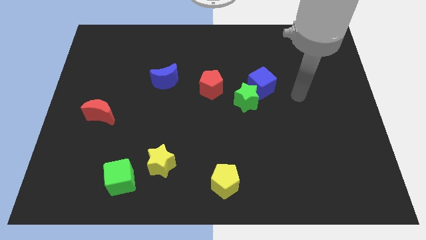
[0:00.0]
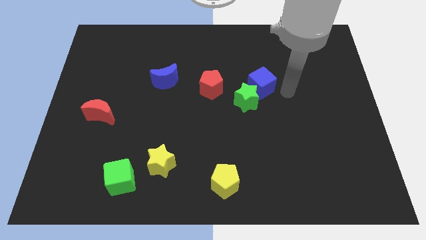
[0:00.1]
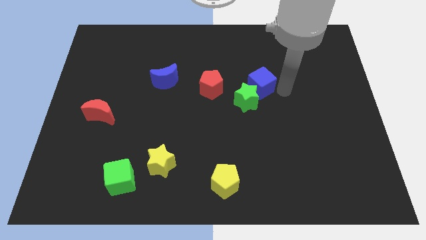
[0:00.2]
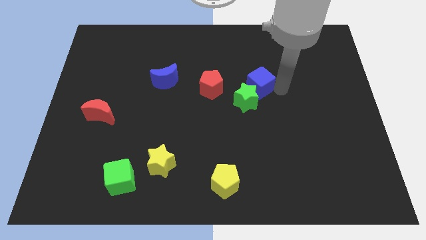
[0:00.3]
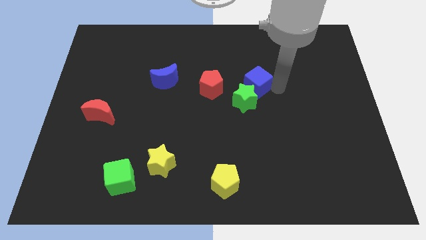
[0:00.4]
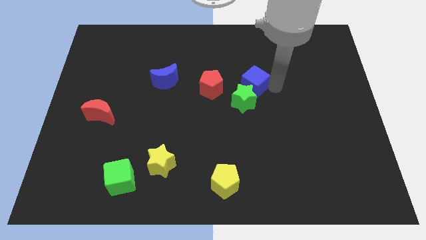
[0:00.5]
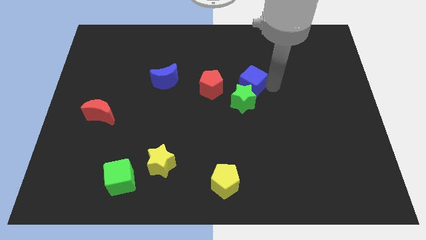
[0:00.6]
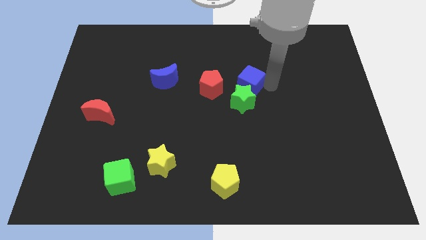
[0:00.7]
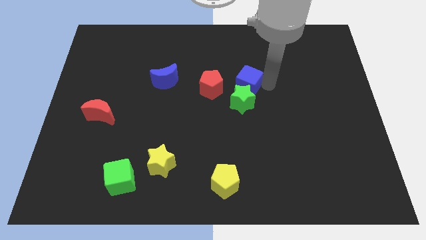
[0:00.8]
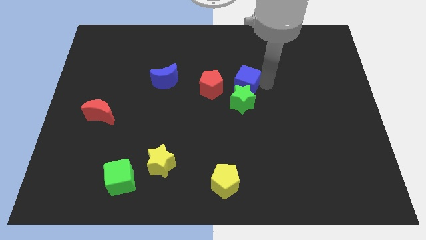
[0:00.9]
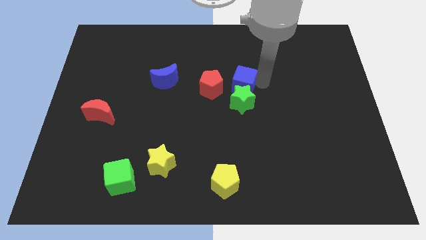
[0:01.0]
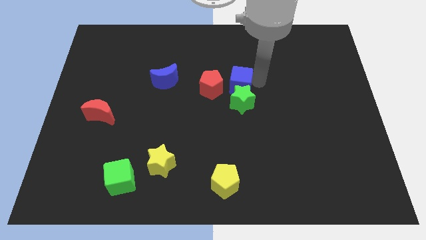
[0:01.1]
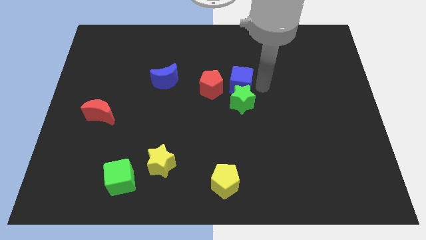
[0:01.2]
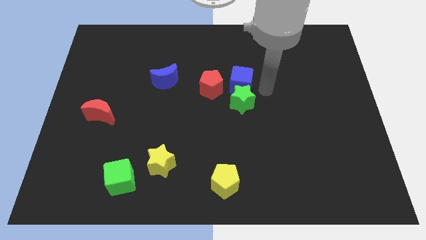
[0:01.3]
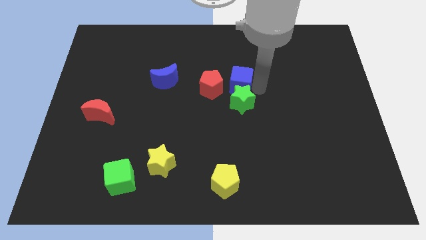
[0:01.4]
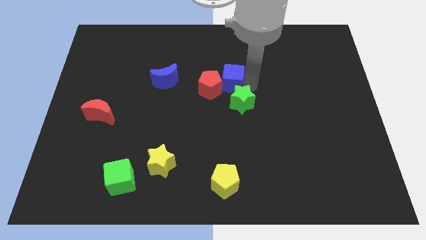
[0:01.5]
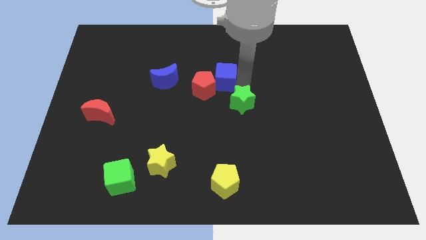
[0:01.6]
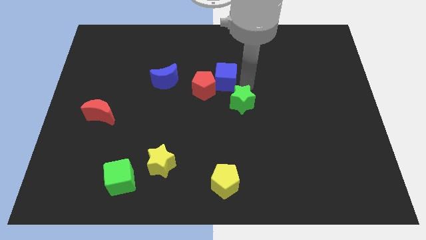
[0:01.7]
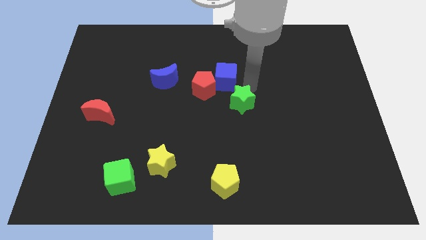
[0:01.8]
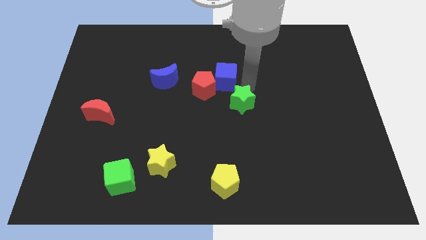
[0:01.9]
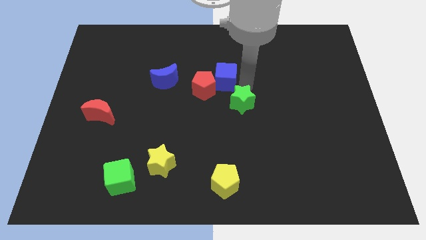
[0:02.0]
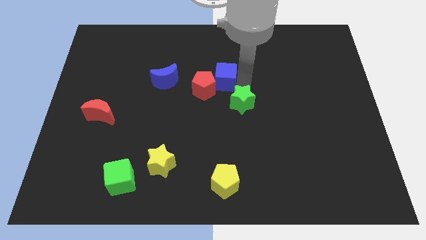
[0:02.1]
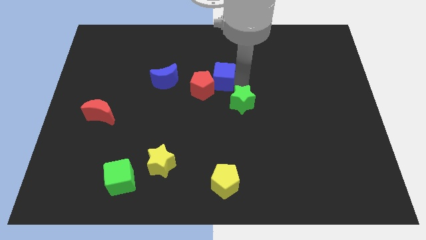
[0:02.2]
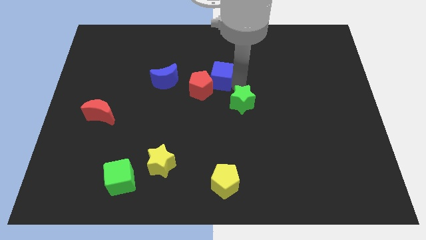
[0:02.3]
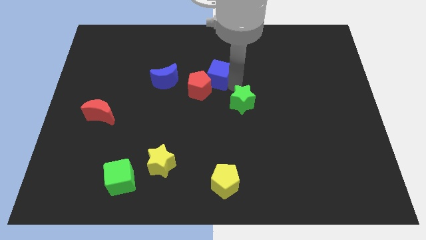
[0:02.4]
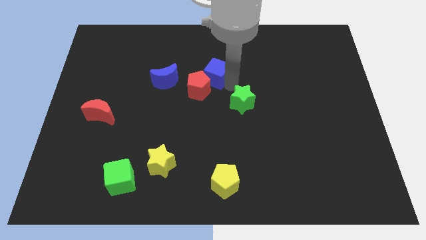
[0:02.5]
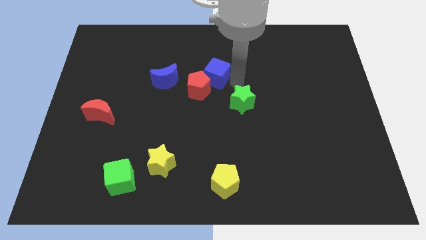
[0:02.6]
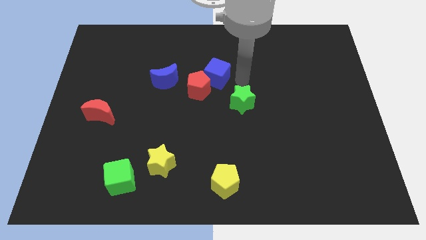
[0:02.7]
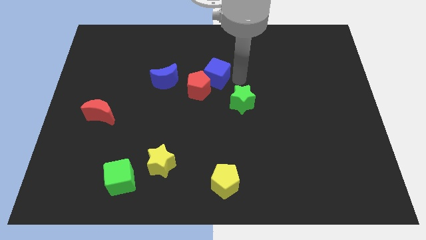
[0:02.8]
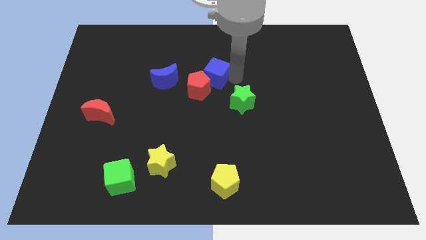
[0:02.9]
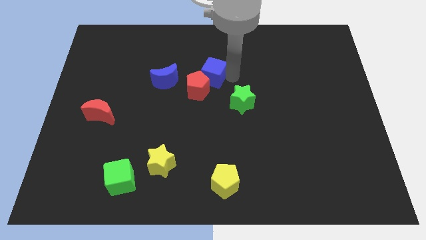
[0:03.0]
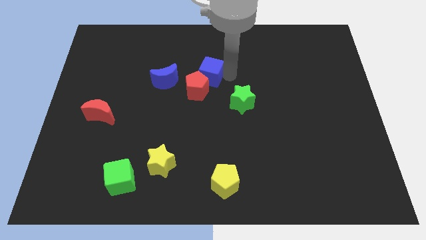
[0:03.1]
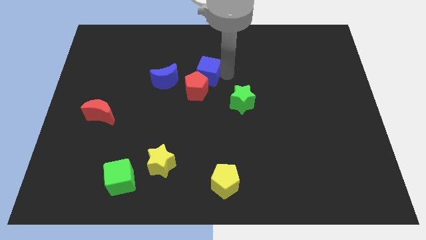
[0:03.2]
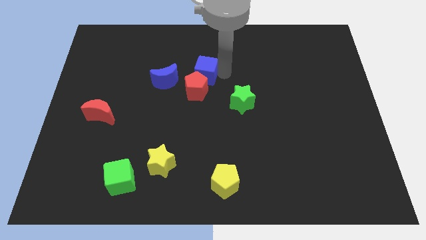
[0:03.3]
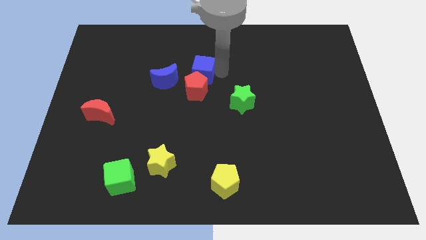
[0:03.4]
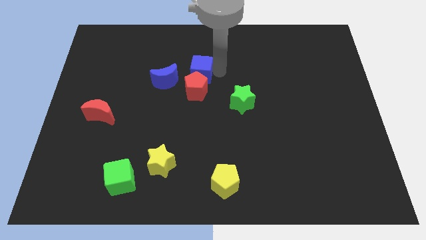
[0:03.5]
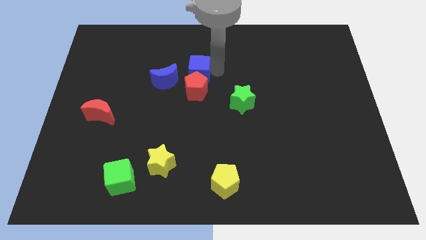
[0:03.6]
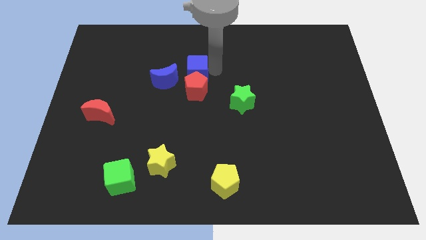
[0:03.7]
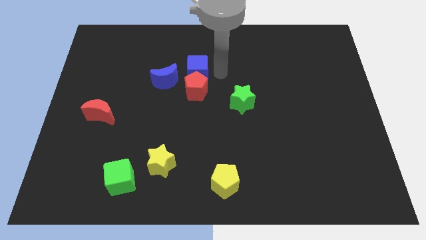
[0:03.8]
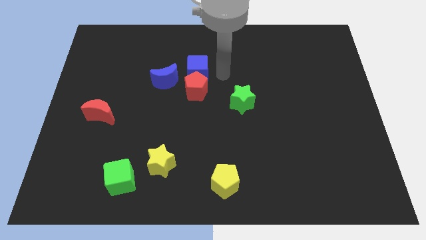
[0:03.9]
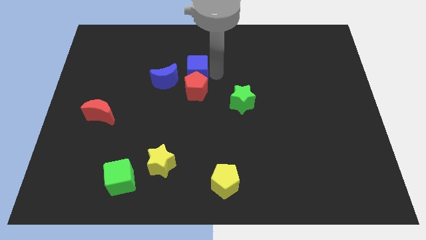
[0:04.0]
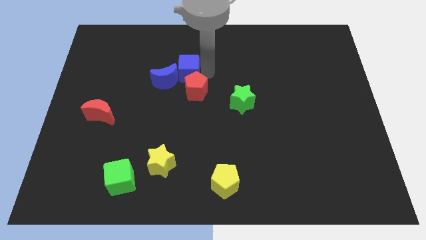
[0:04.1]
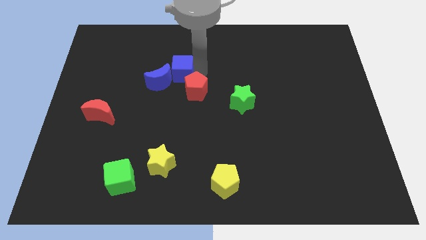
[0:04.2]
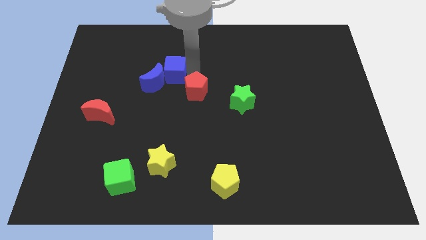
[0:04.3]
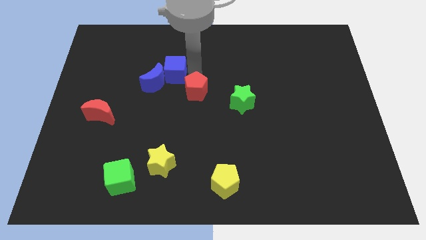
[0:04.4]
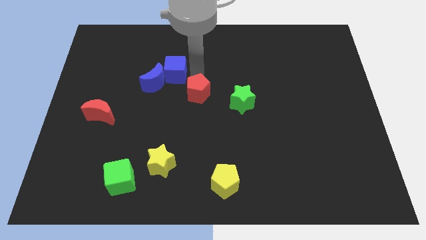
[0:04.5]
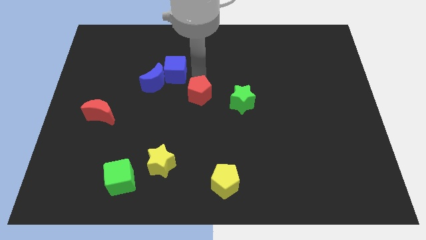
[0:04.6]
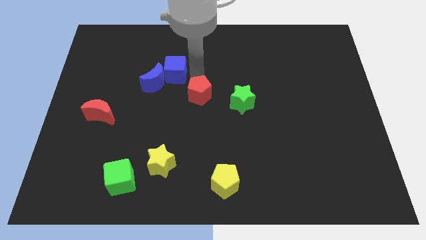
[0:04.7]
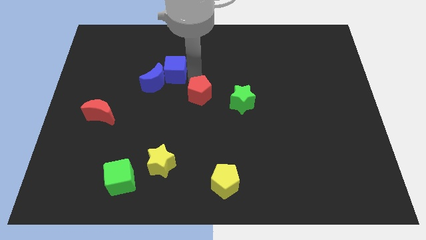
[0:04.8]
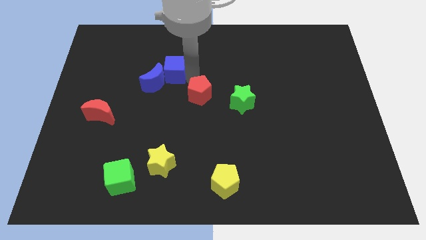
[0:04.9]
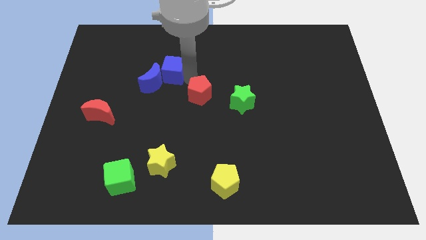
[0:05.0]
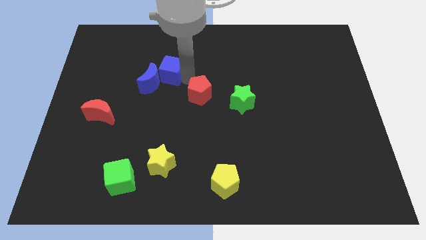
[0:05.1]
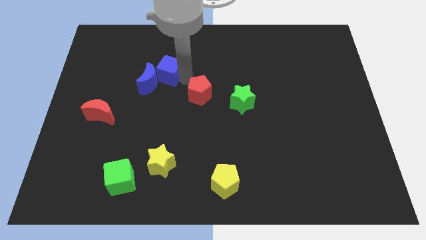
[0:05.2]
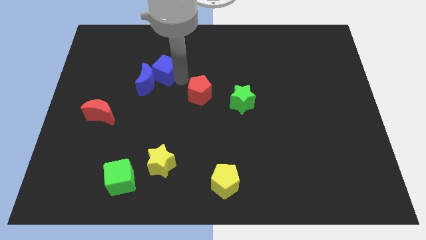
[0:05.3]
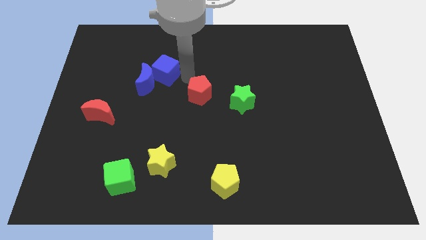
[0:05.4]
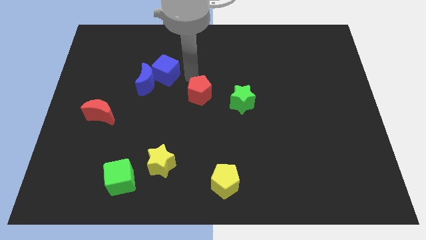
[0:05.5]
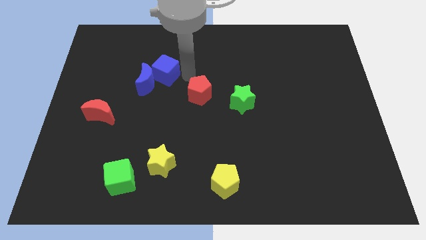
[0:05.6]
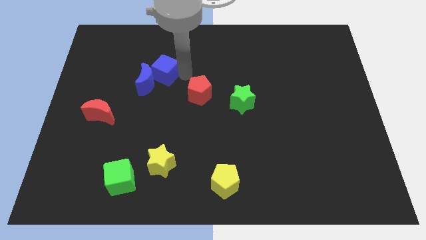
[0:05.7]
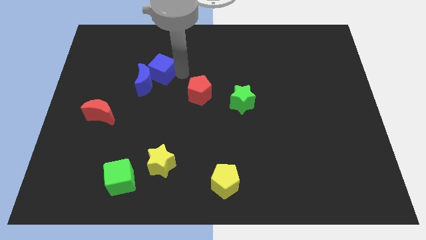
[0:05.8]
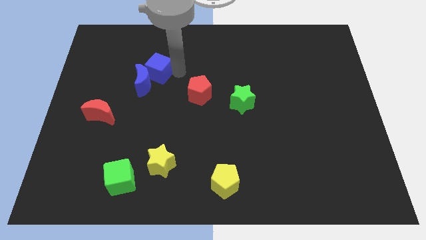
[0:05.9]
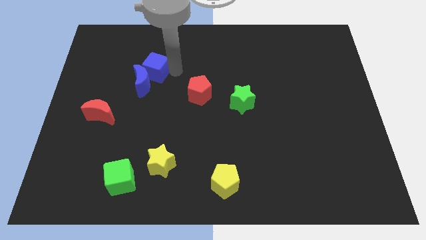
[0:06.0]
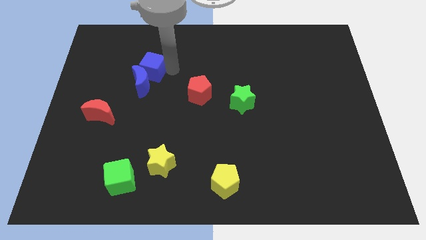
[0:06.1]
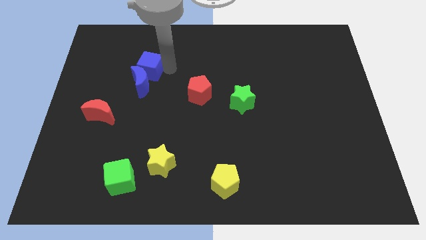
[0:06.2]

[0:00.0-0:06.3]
slide the blue cube to the top left of the blue moon
